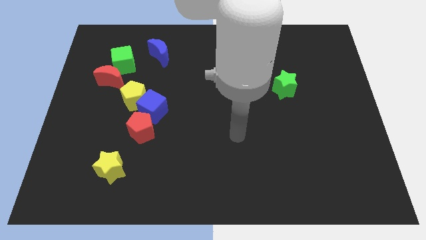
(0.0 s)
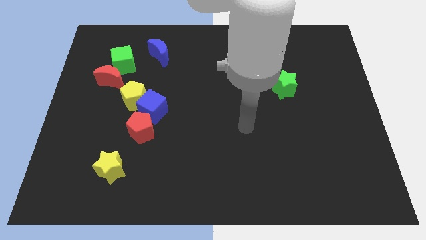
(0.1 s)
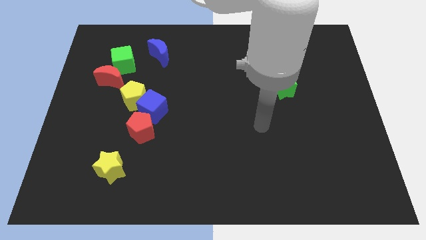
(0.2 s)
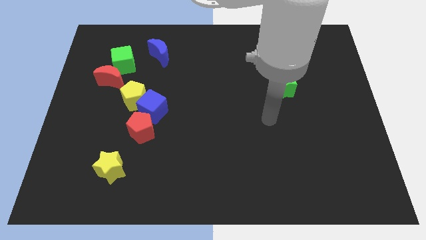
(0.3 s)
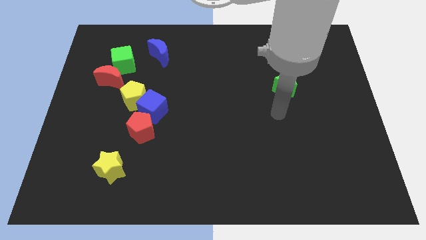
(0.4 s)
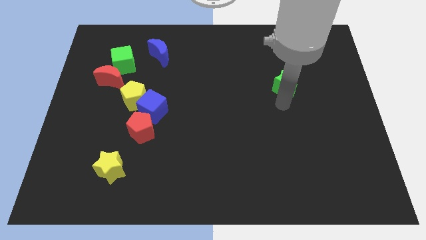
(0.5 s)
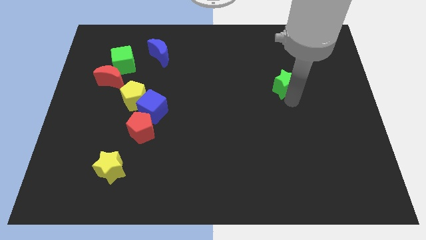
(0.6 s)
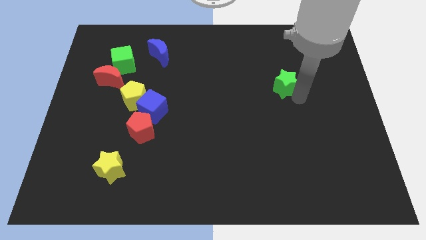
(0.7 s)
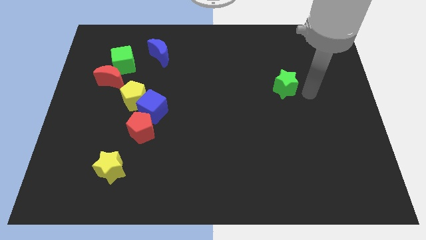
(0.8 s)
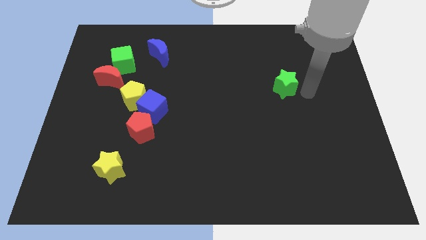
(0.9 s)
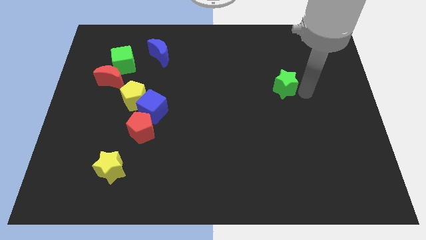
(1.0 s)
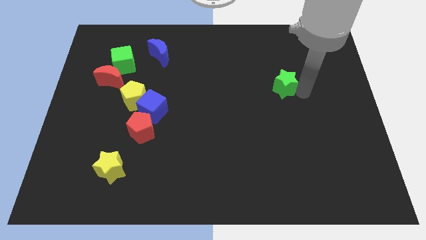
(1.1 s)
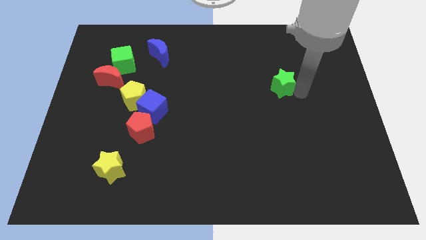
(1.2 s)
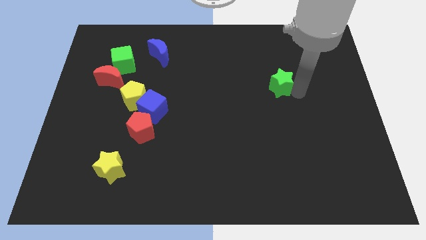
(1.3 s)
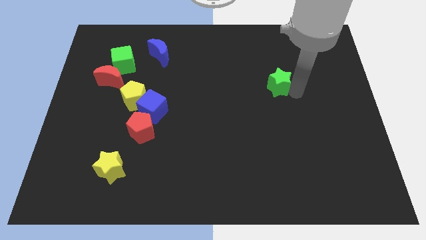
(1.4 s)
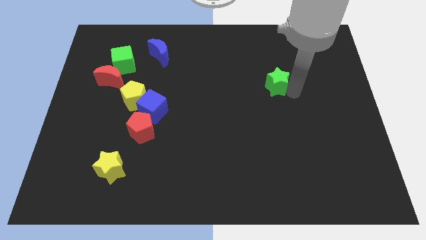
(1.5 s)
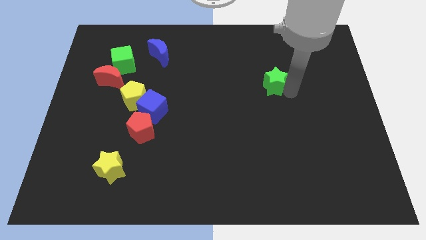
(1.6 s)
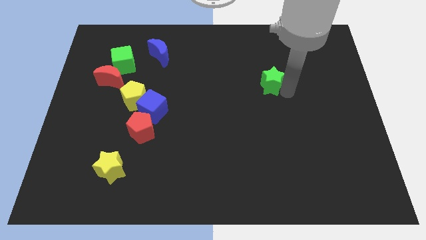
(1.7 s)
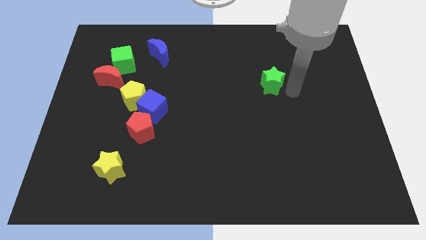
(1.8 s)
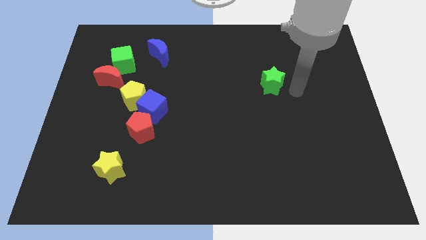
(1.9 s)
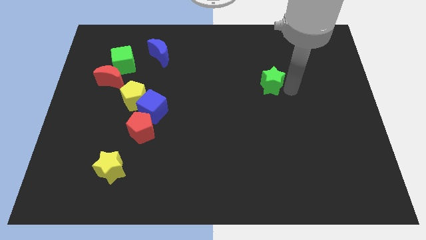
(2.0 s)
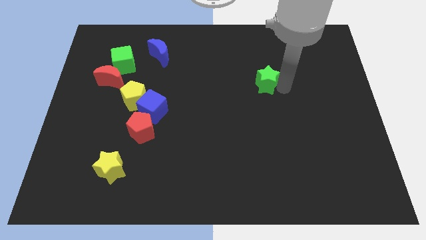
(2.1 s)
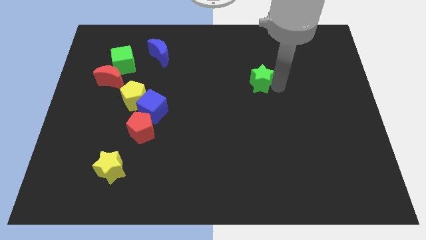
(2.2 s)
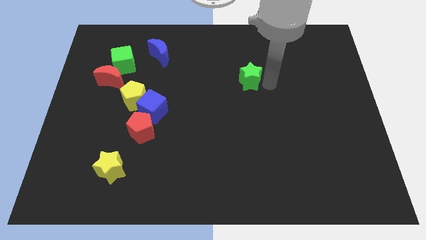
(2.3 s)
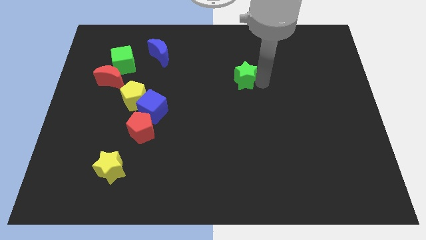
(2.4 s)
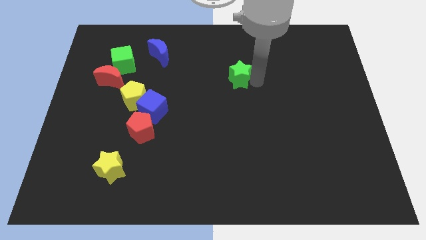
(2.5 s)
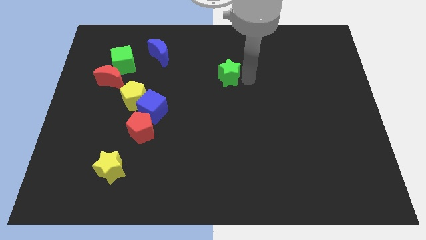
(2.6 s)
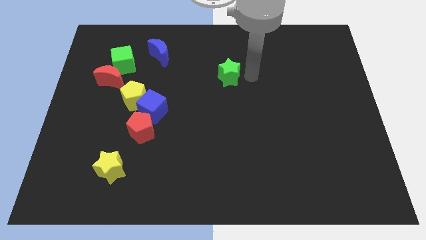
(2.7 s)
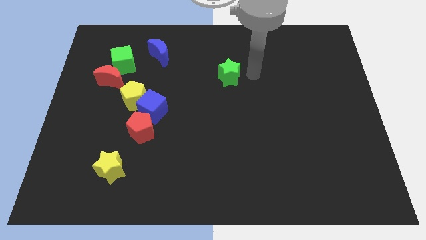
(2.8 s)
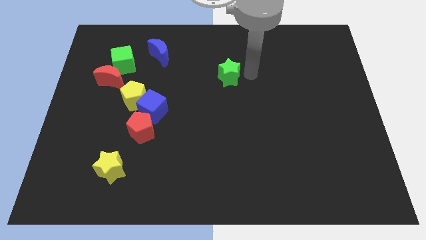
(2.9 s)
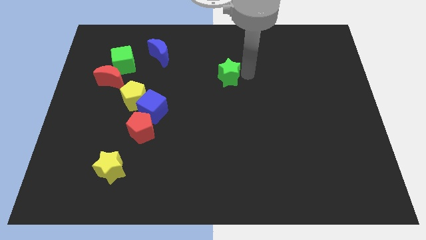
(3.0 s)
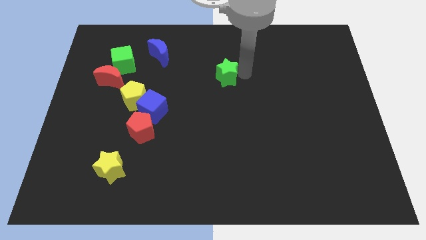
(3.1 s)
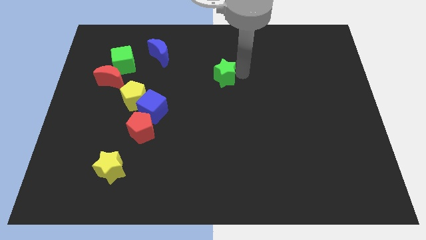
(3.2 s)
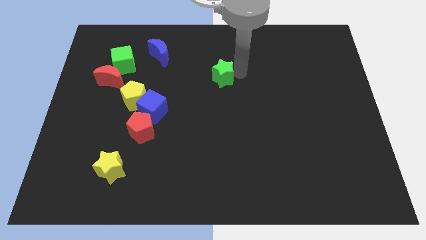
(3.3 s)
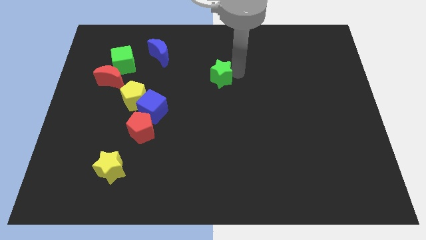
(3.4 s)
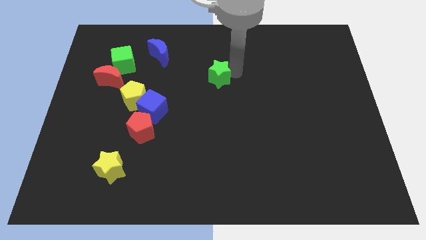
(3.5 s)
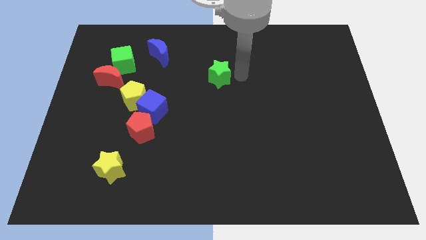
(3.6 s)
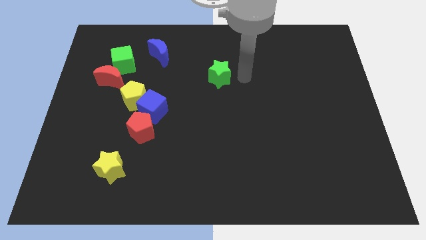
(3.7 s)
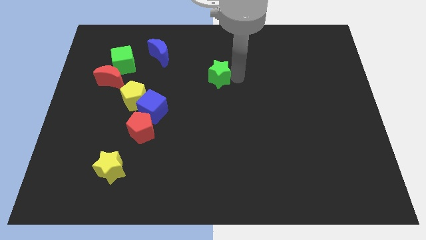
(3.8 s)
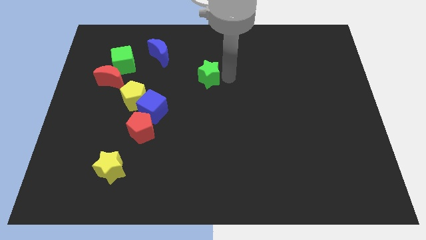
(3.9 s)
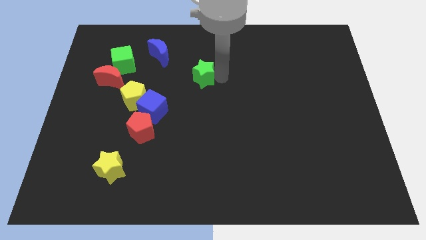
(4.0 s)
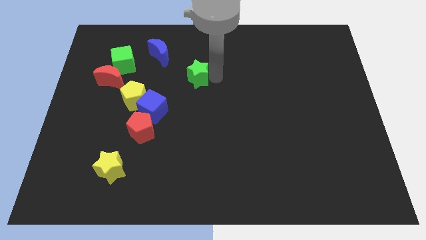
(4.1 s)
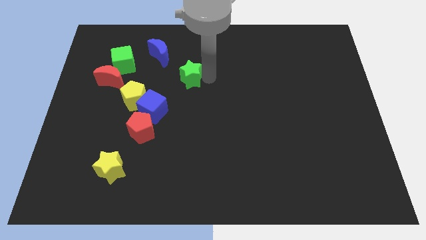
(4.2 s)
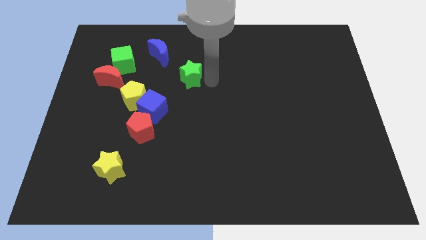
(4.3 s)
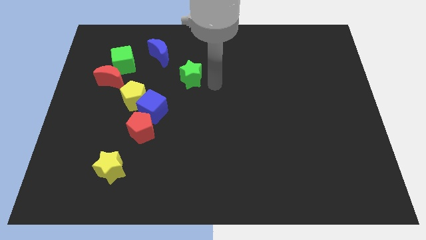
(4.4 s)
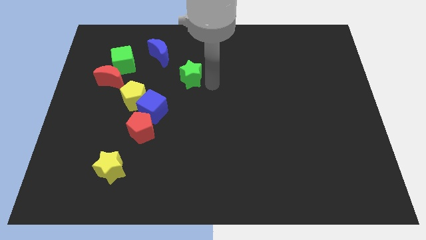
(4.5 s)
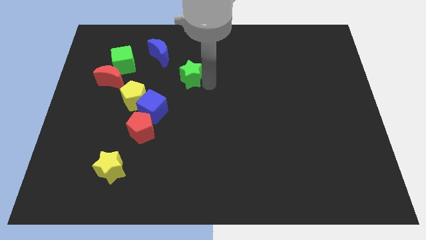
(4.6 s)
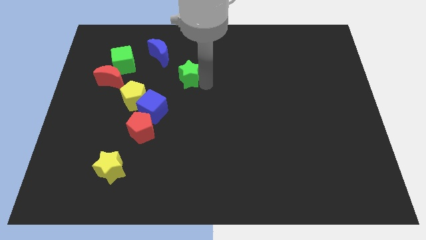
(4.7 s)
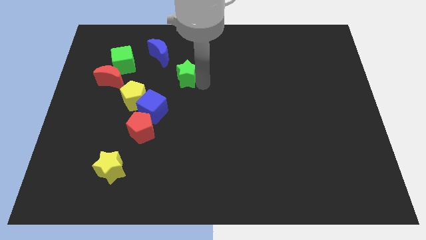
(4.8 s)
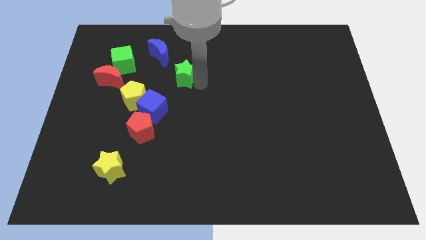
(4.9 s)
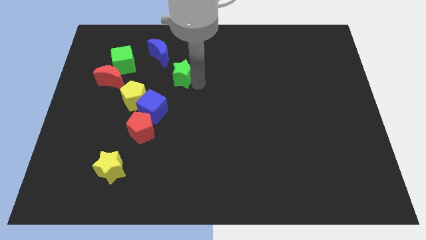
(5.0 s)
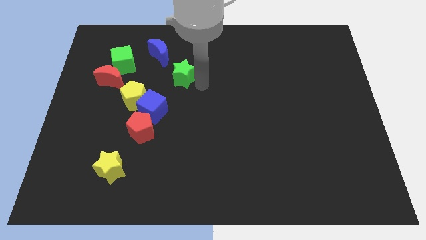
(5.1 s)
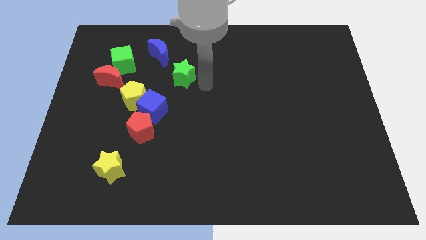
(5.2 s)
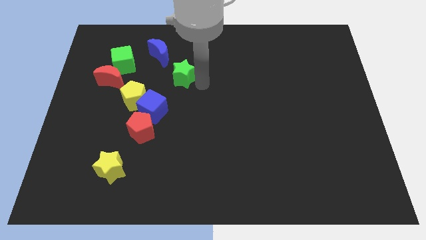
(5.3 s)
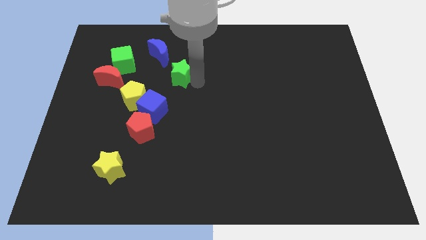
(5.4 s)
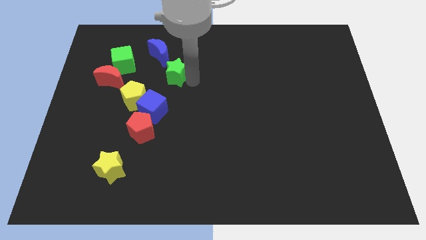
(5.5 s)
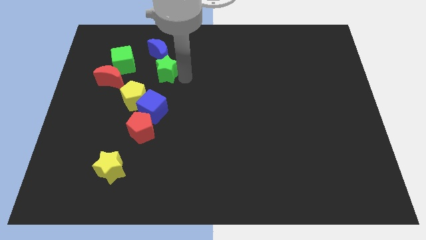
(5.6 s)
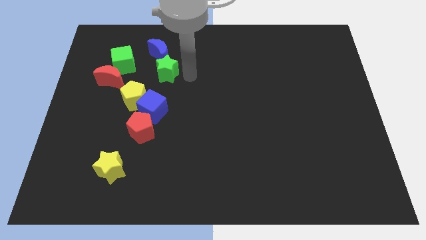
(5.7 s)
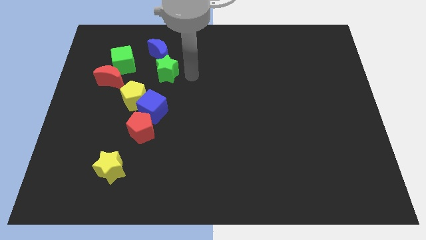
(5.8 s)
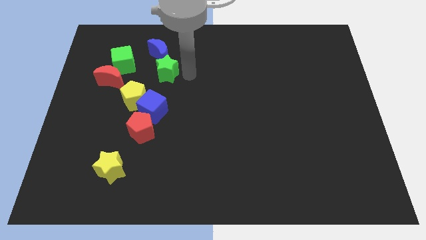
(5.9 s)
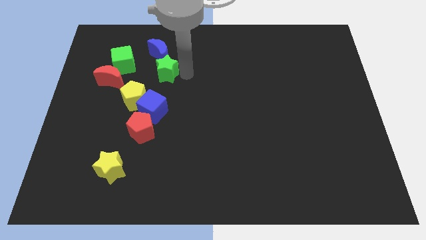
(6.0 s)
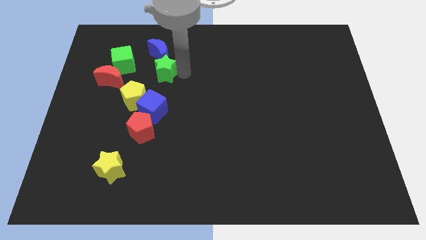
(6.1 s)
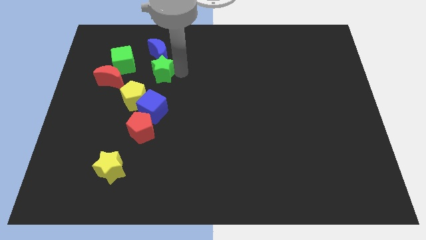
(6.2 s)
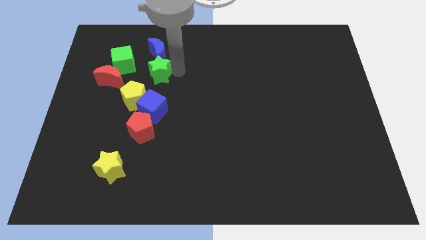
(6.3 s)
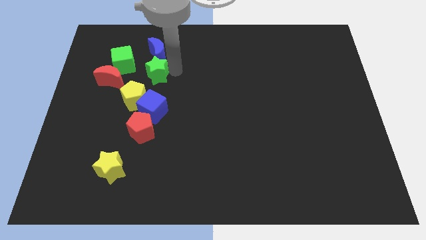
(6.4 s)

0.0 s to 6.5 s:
slide the green star to the bottom left of the blue moon
